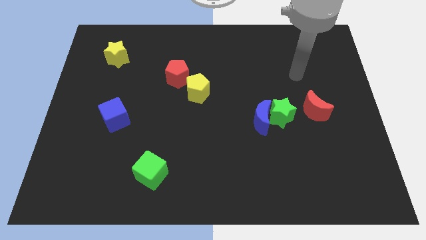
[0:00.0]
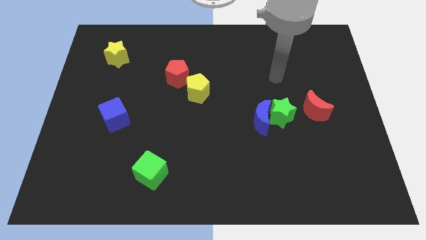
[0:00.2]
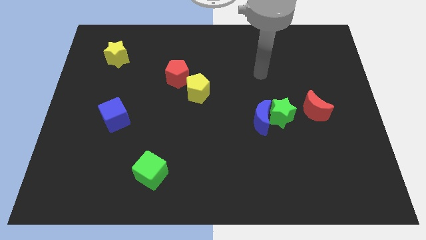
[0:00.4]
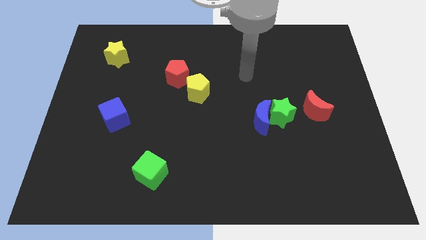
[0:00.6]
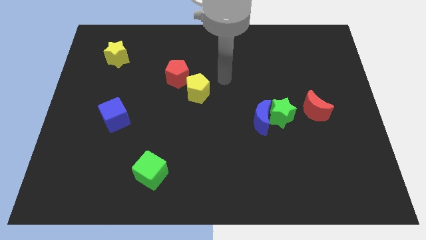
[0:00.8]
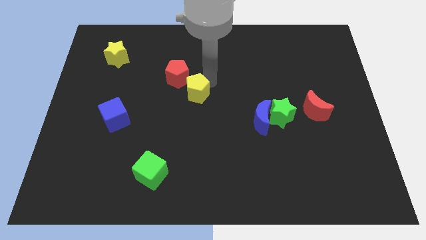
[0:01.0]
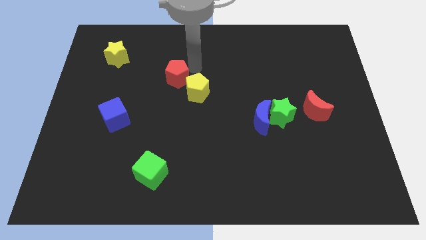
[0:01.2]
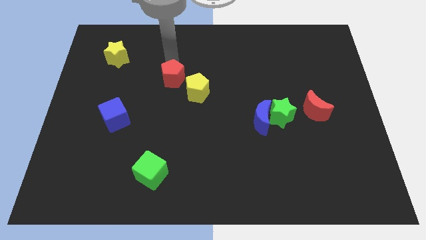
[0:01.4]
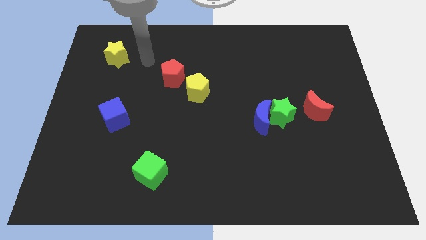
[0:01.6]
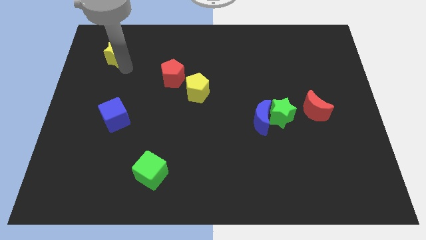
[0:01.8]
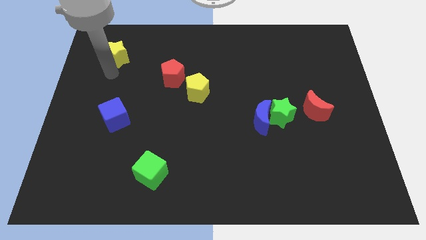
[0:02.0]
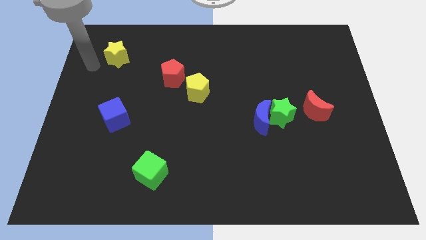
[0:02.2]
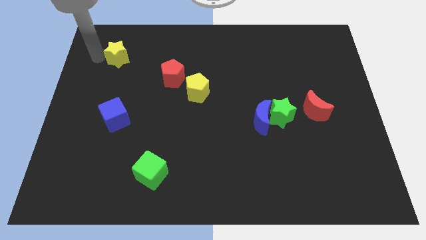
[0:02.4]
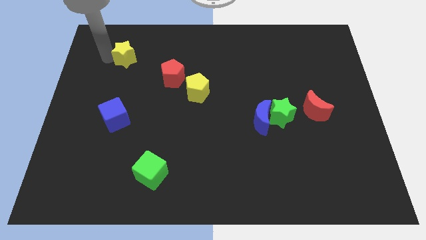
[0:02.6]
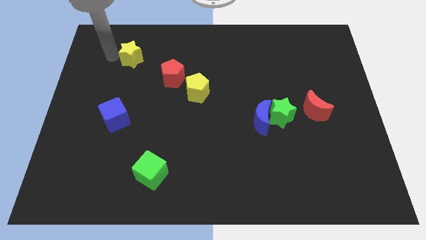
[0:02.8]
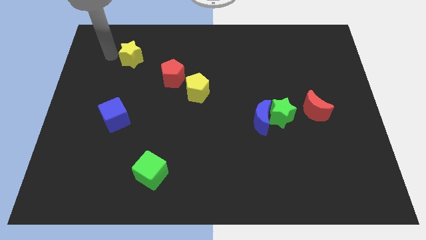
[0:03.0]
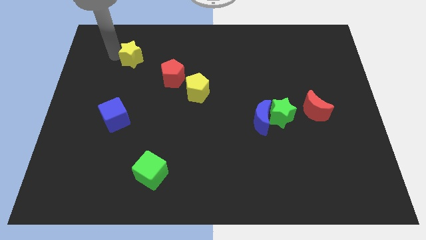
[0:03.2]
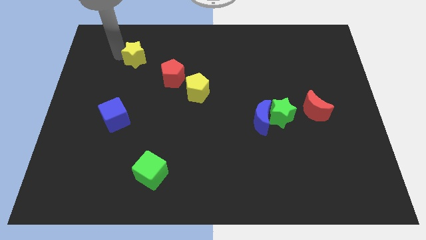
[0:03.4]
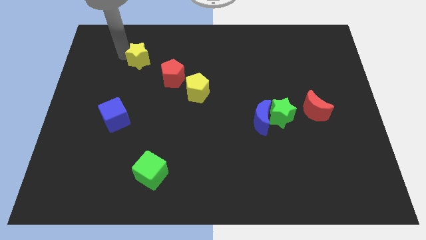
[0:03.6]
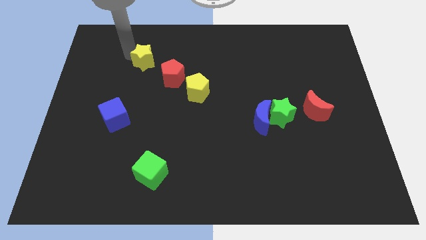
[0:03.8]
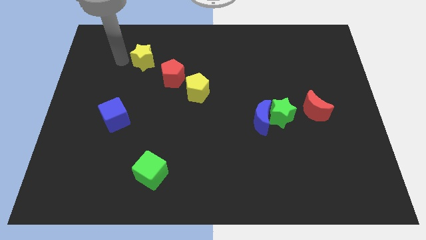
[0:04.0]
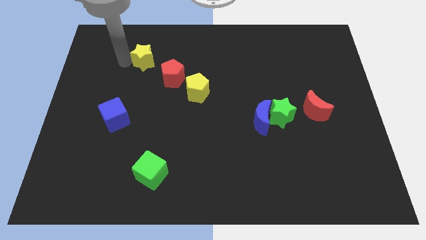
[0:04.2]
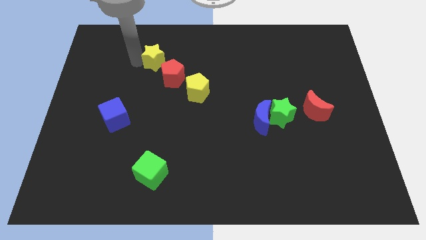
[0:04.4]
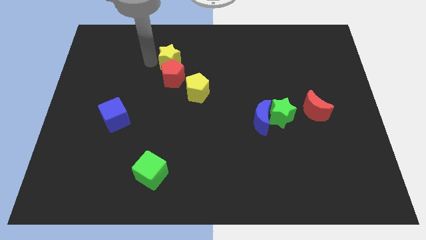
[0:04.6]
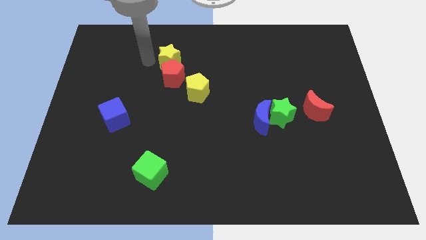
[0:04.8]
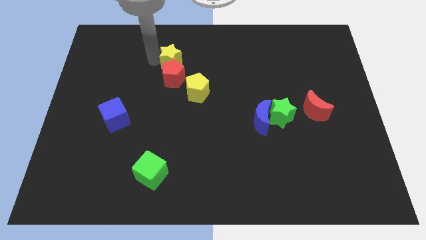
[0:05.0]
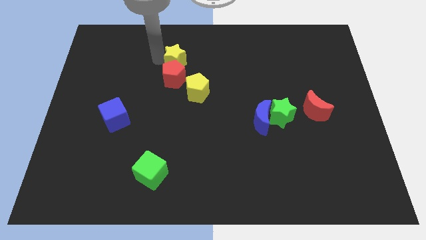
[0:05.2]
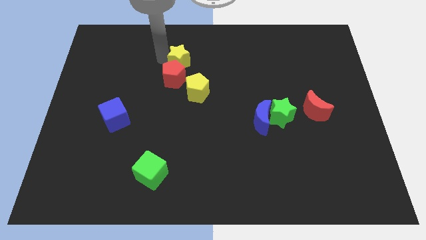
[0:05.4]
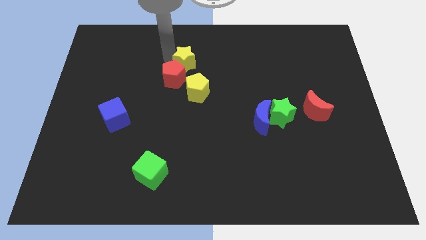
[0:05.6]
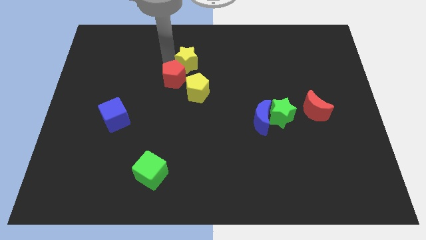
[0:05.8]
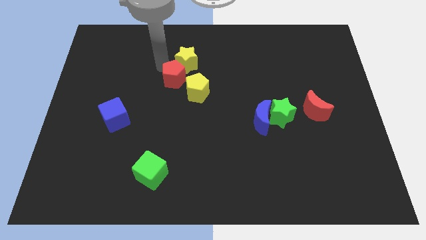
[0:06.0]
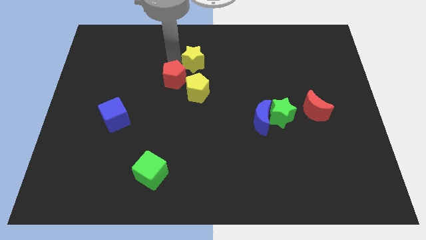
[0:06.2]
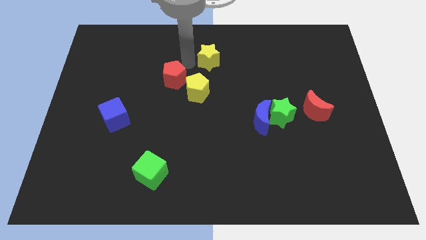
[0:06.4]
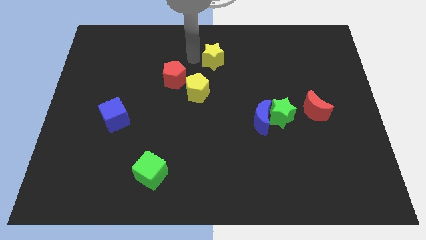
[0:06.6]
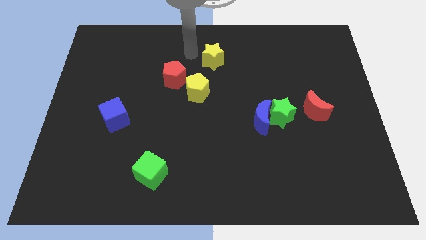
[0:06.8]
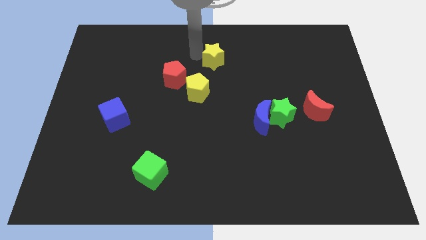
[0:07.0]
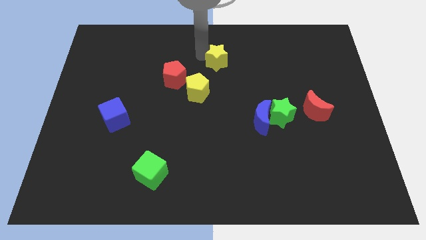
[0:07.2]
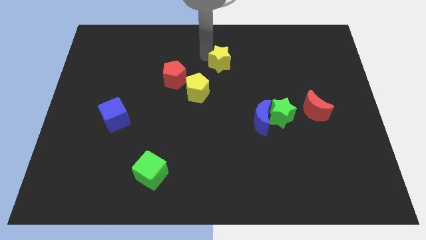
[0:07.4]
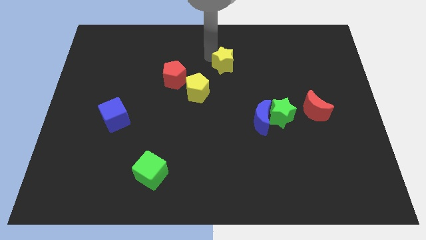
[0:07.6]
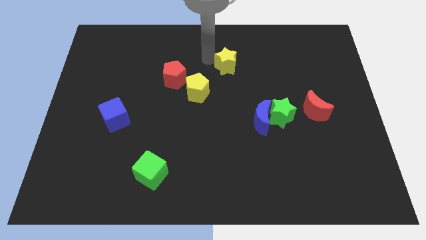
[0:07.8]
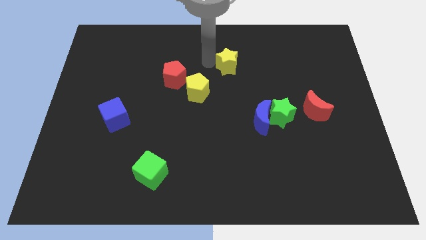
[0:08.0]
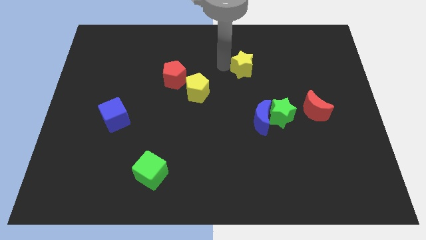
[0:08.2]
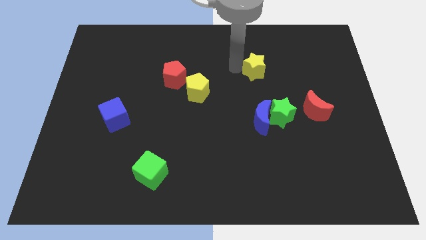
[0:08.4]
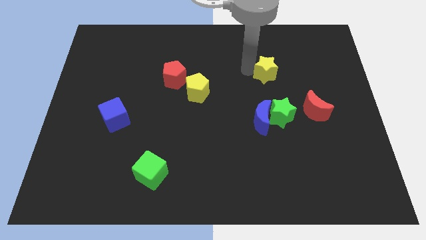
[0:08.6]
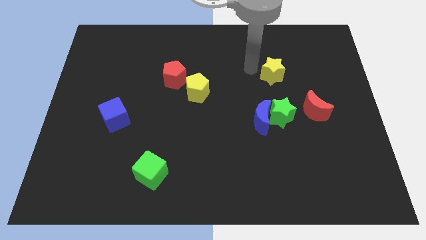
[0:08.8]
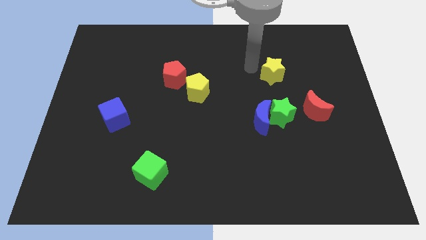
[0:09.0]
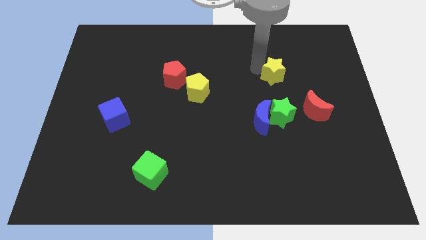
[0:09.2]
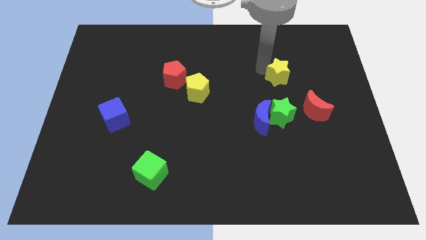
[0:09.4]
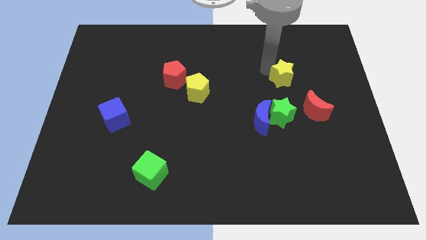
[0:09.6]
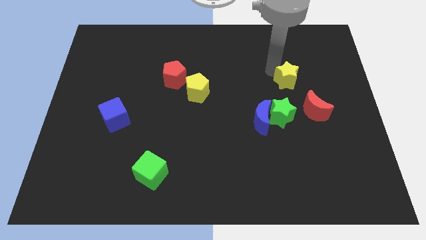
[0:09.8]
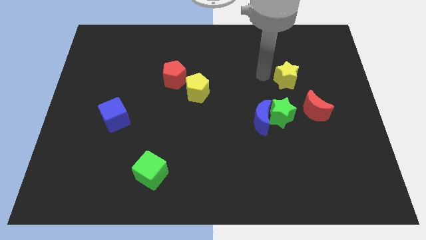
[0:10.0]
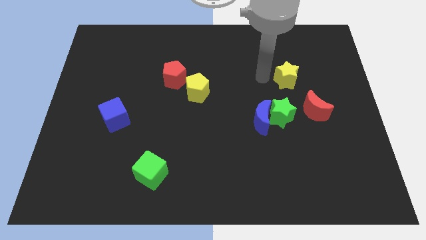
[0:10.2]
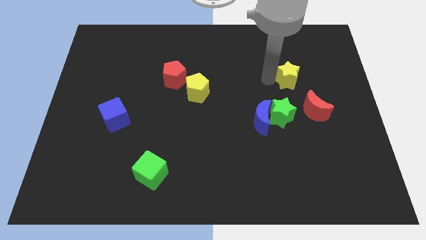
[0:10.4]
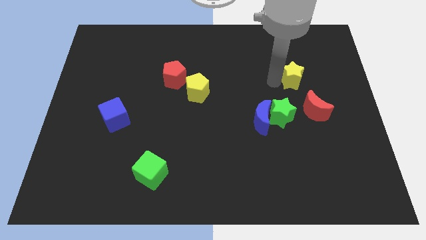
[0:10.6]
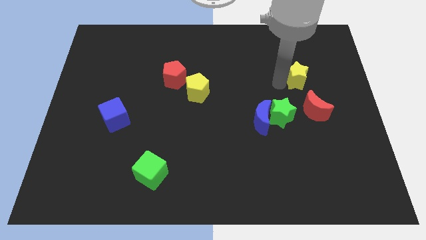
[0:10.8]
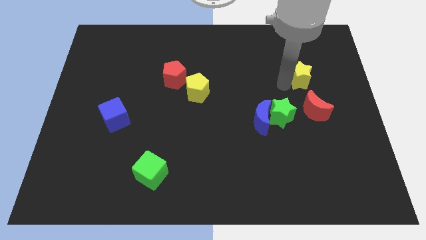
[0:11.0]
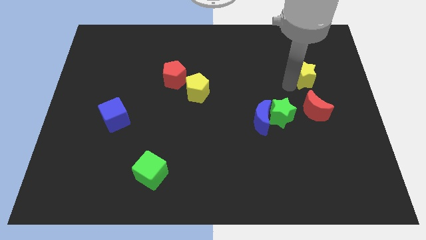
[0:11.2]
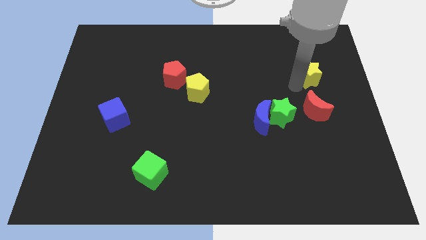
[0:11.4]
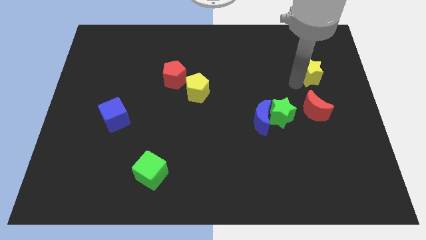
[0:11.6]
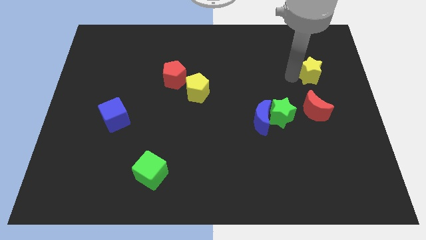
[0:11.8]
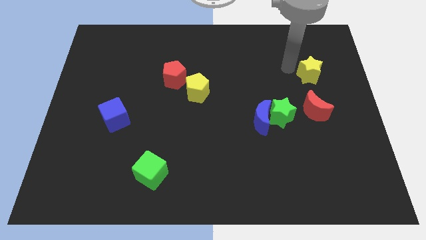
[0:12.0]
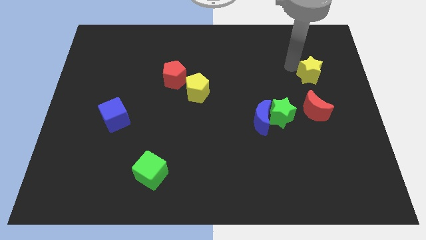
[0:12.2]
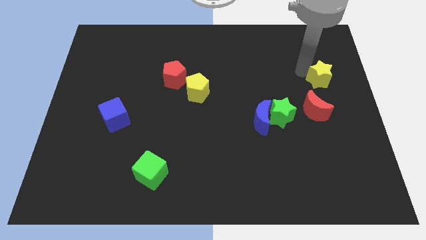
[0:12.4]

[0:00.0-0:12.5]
move the yellow star to the center right

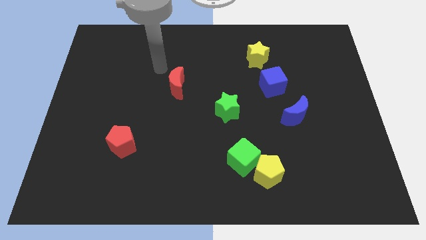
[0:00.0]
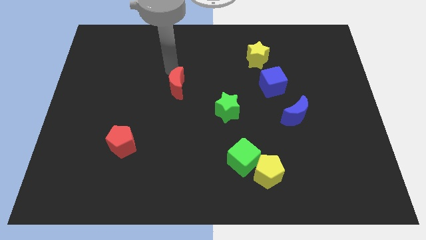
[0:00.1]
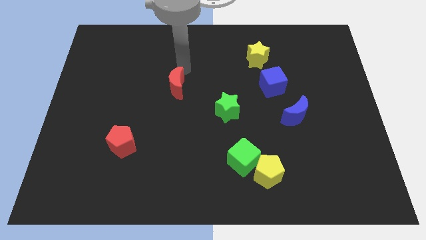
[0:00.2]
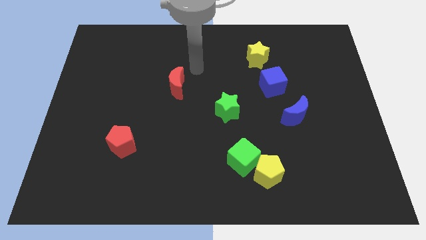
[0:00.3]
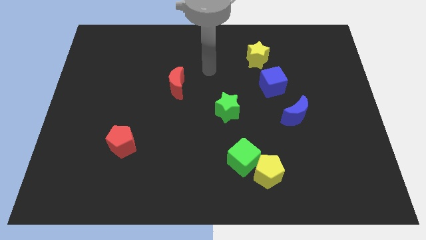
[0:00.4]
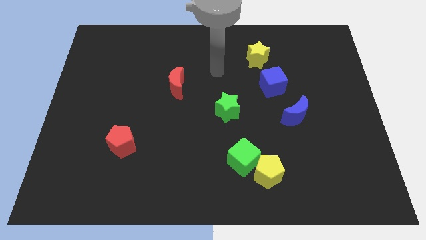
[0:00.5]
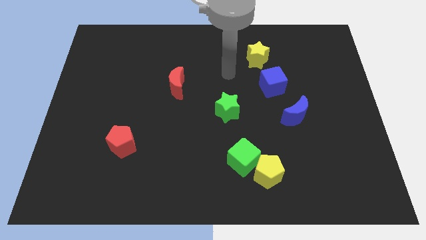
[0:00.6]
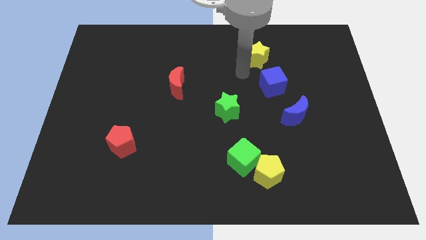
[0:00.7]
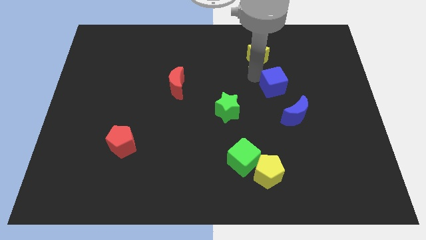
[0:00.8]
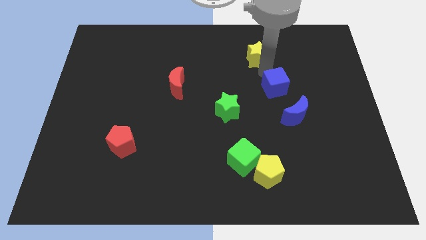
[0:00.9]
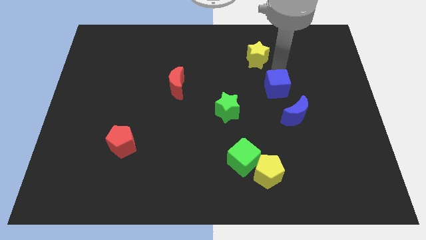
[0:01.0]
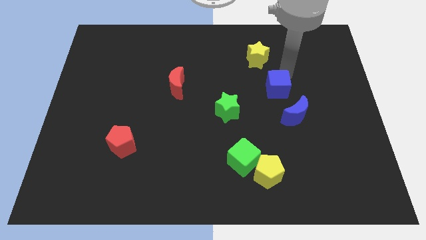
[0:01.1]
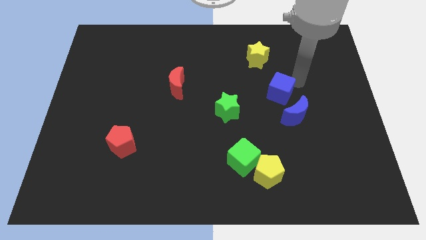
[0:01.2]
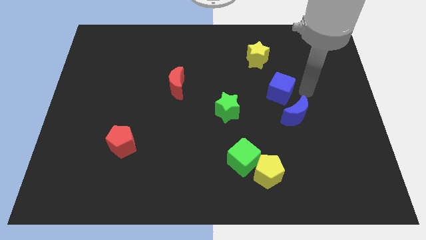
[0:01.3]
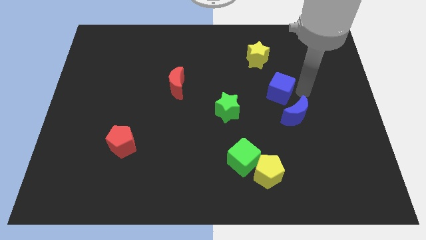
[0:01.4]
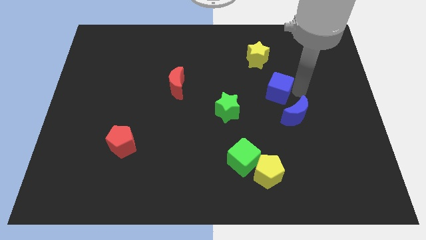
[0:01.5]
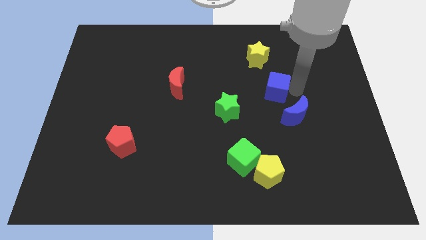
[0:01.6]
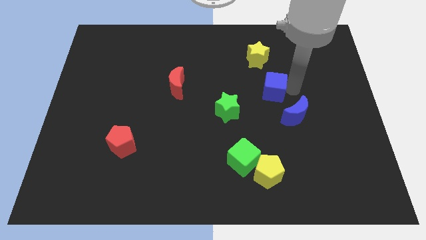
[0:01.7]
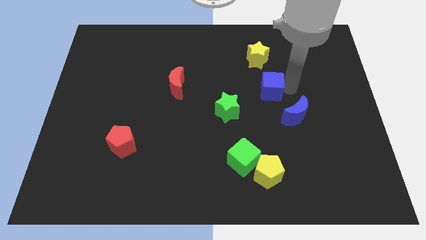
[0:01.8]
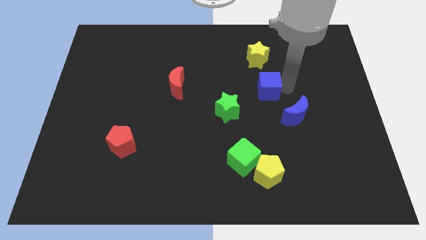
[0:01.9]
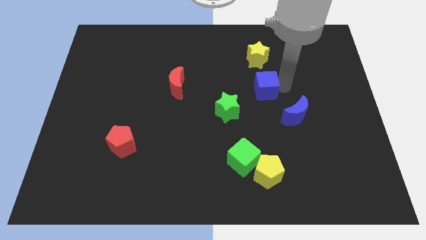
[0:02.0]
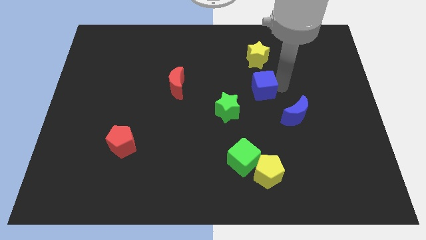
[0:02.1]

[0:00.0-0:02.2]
slide the blue cube to the middle of the board
